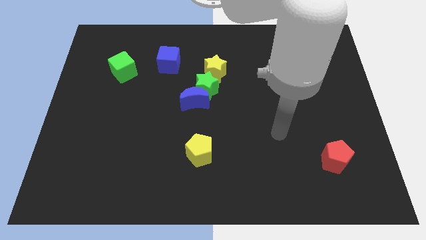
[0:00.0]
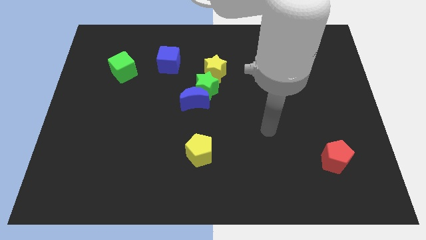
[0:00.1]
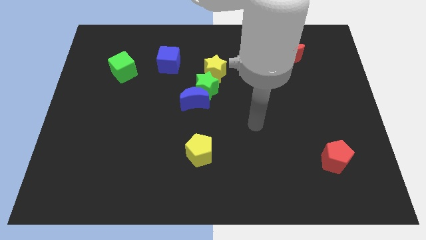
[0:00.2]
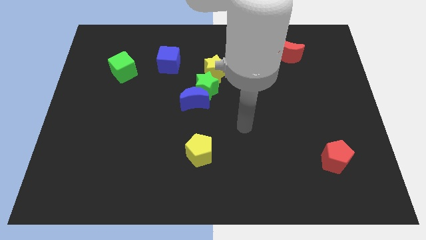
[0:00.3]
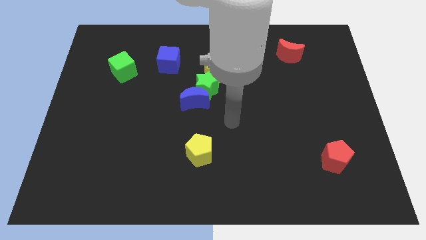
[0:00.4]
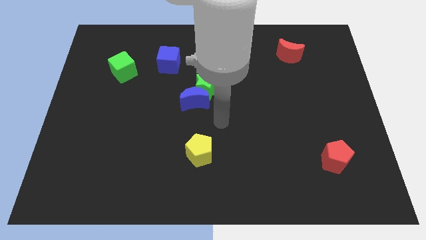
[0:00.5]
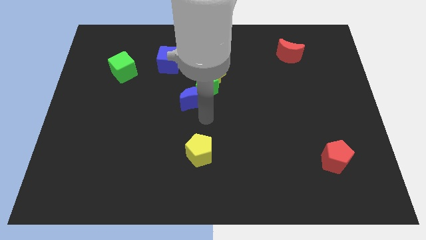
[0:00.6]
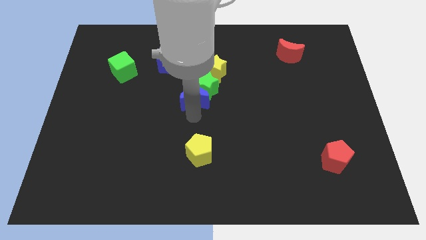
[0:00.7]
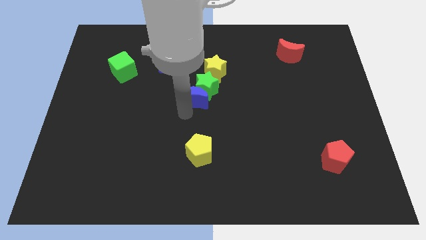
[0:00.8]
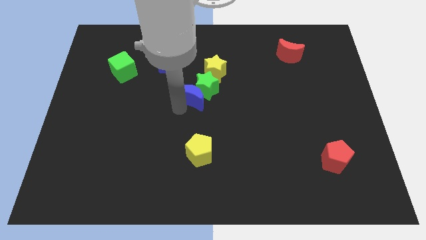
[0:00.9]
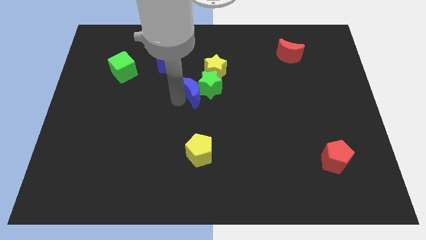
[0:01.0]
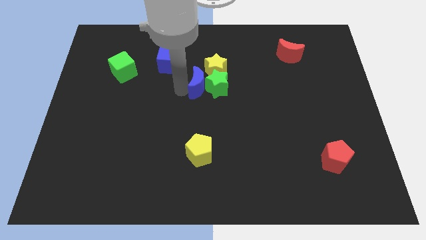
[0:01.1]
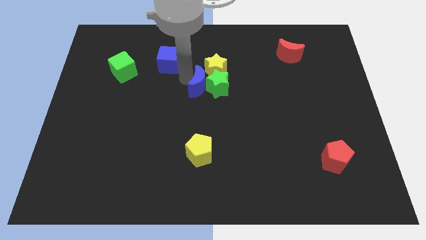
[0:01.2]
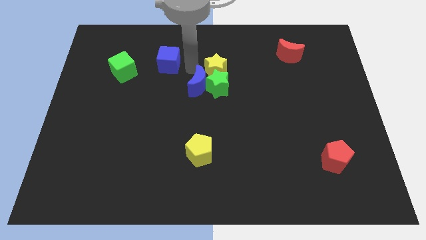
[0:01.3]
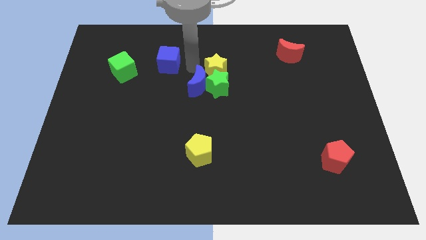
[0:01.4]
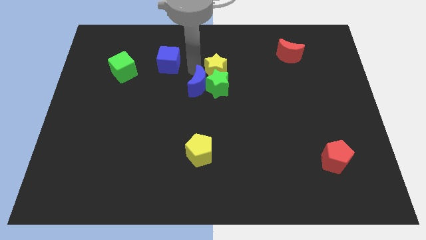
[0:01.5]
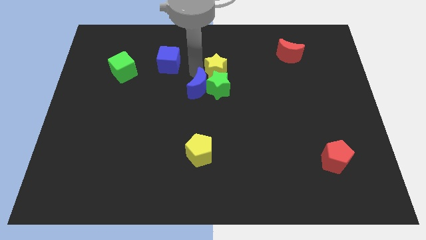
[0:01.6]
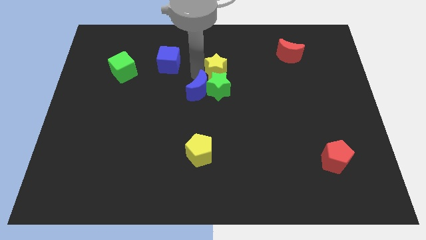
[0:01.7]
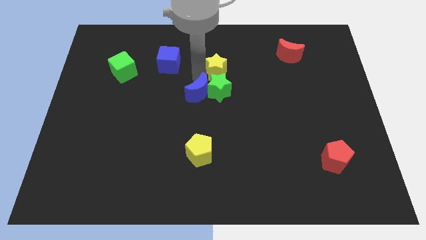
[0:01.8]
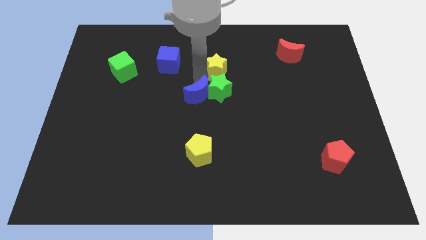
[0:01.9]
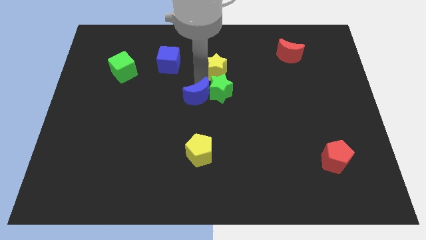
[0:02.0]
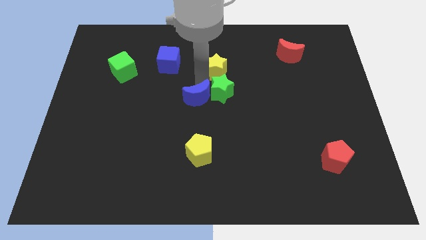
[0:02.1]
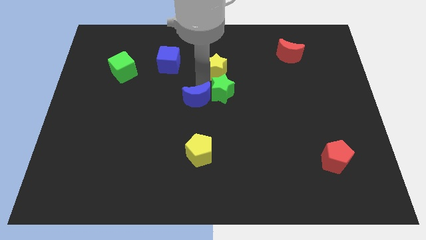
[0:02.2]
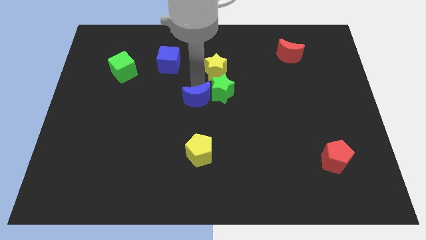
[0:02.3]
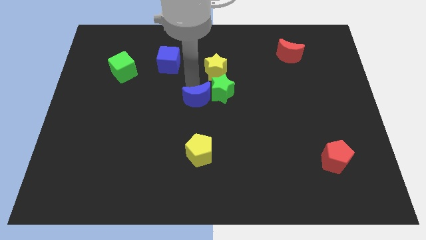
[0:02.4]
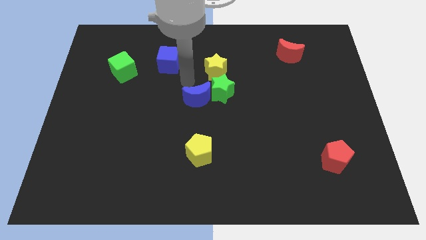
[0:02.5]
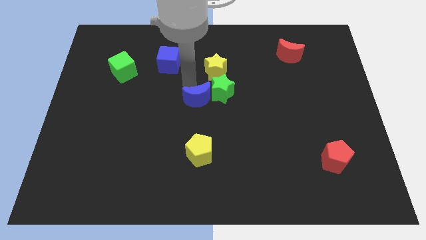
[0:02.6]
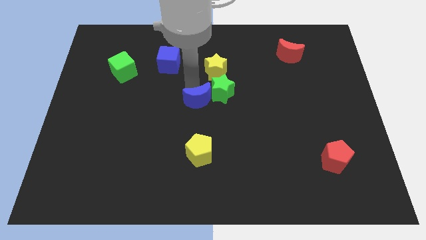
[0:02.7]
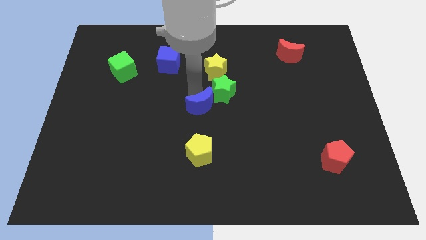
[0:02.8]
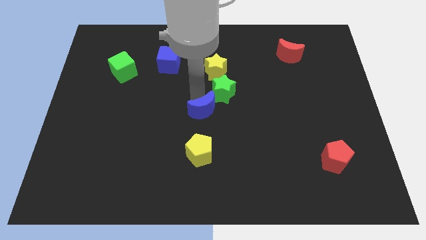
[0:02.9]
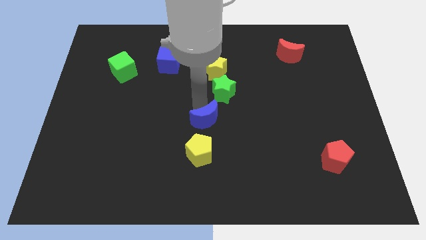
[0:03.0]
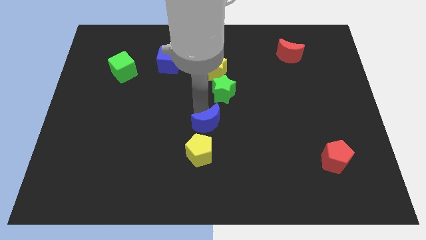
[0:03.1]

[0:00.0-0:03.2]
slightly move the blue moon downwards and right diagonally

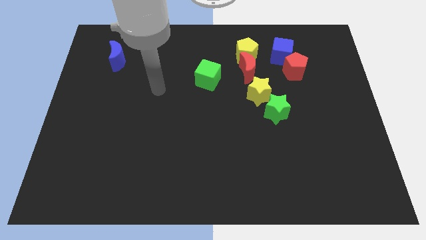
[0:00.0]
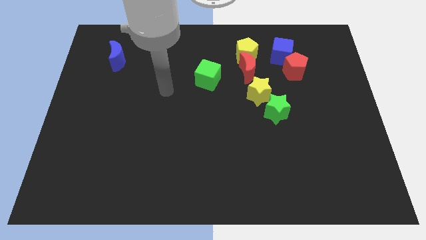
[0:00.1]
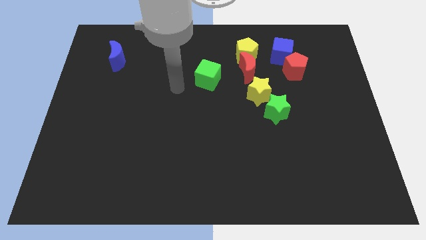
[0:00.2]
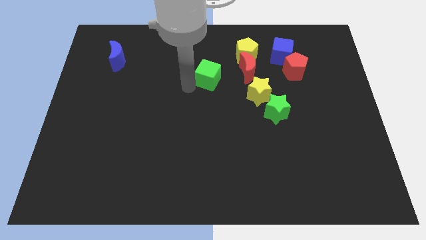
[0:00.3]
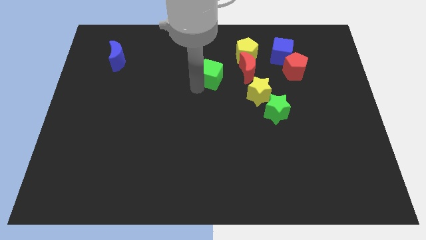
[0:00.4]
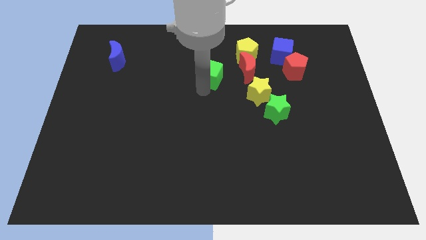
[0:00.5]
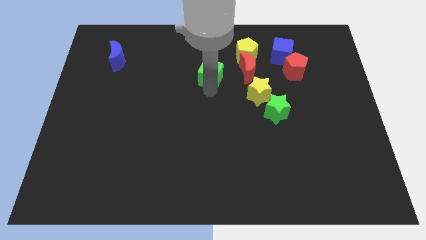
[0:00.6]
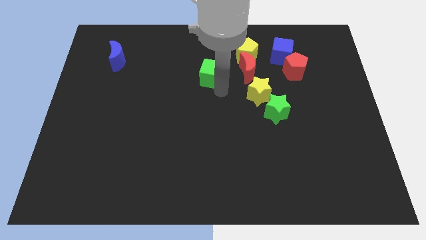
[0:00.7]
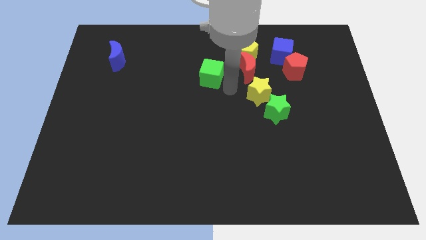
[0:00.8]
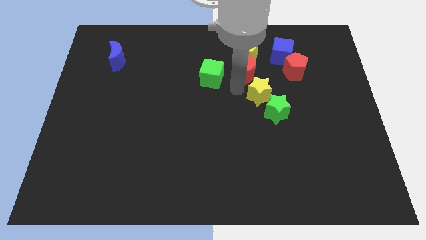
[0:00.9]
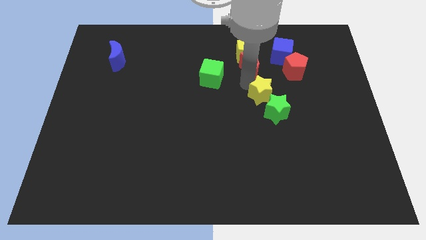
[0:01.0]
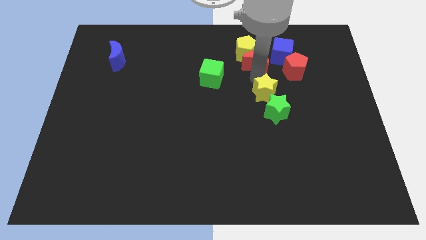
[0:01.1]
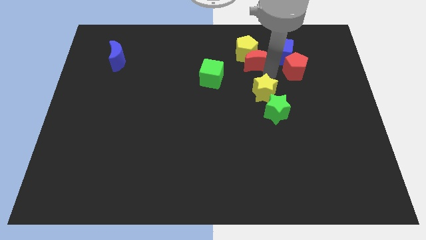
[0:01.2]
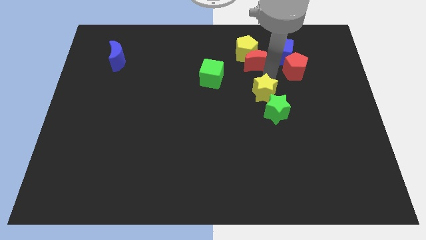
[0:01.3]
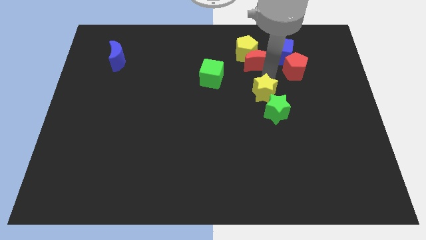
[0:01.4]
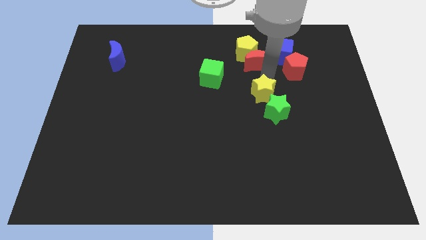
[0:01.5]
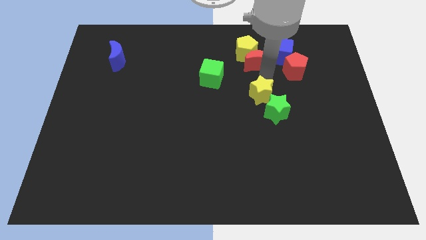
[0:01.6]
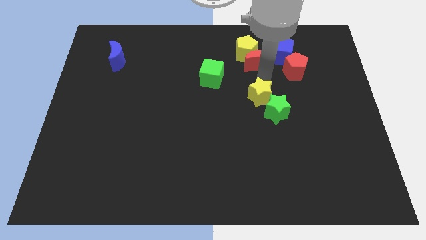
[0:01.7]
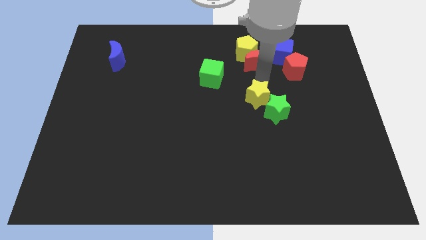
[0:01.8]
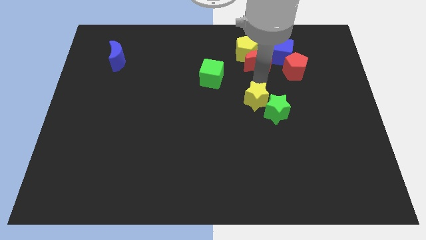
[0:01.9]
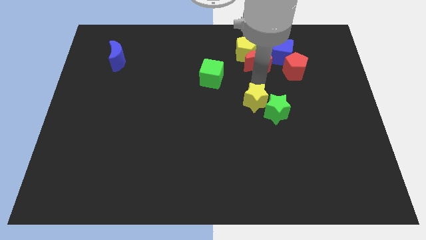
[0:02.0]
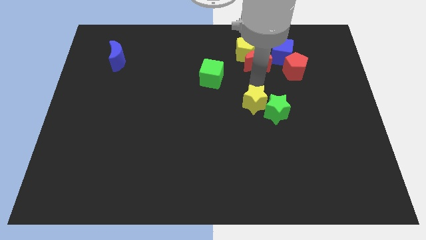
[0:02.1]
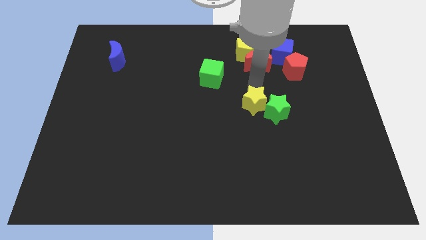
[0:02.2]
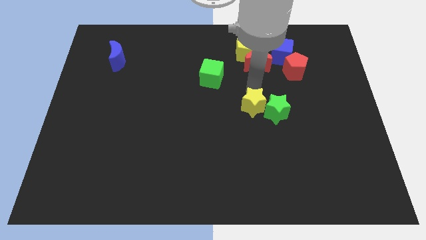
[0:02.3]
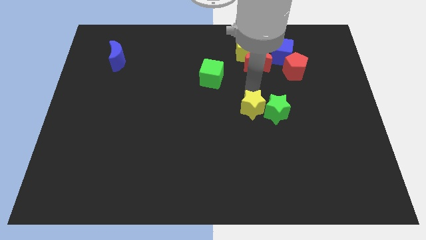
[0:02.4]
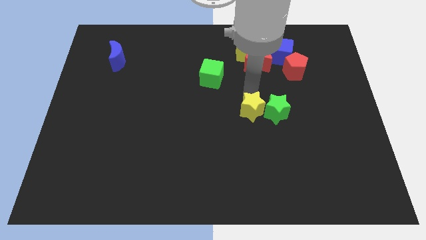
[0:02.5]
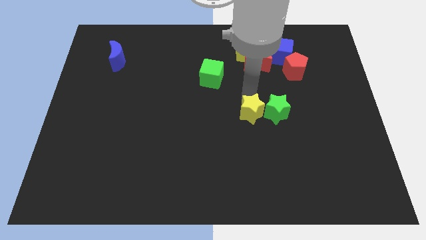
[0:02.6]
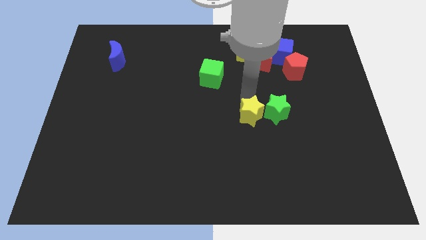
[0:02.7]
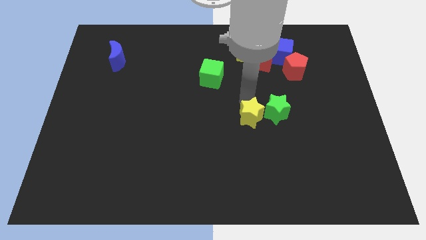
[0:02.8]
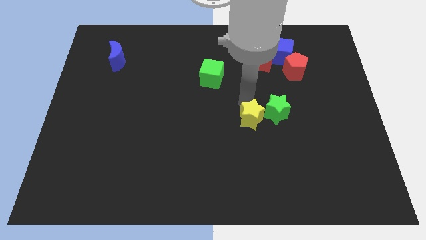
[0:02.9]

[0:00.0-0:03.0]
move the yellow star a little down

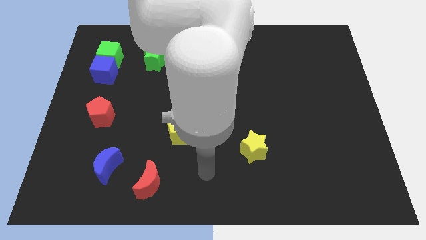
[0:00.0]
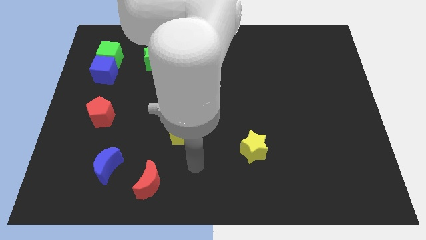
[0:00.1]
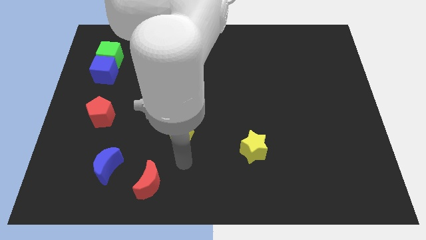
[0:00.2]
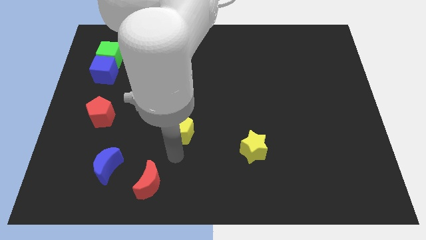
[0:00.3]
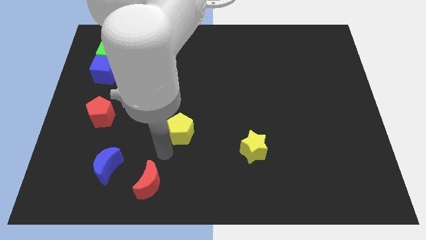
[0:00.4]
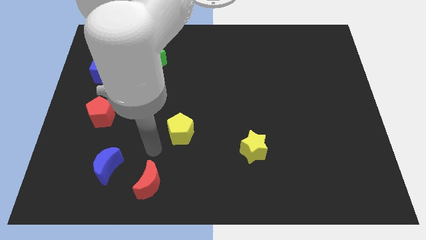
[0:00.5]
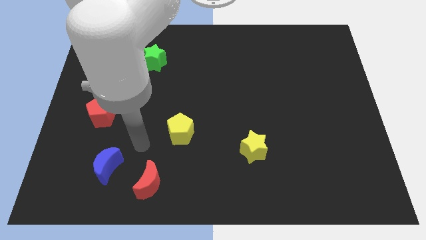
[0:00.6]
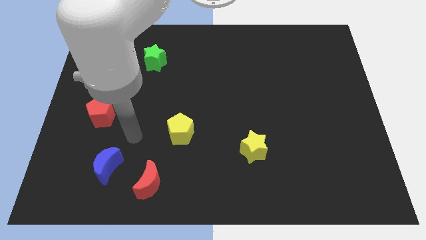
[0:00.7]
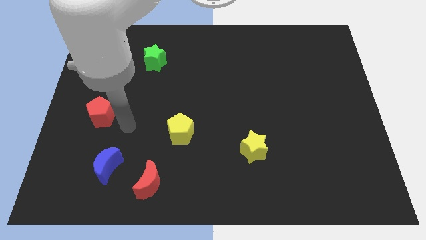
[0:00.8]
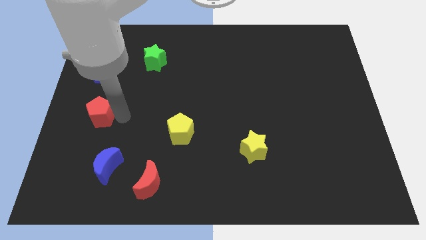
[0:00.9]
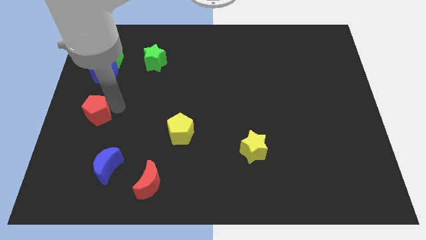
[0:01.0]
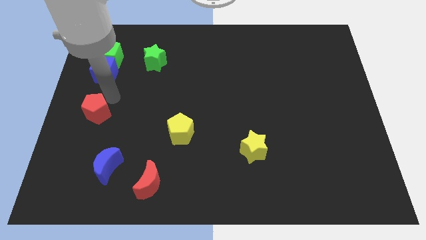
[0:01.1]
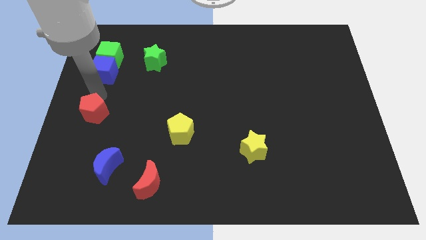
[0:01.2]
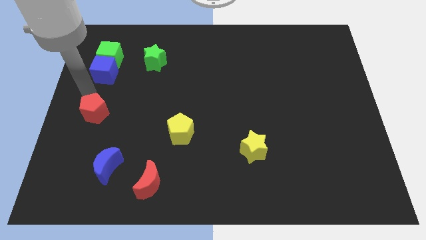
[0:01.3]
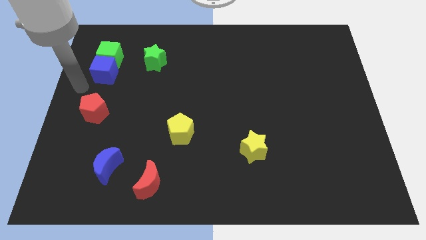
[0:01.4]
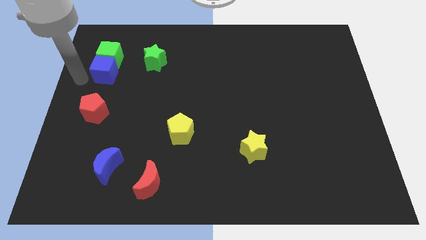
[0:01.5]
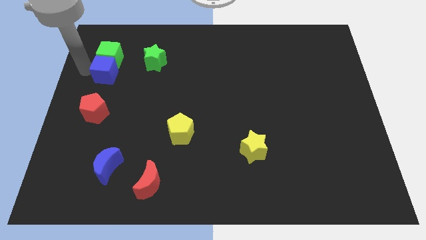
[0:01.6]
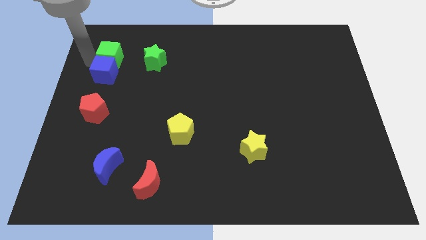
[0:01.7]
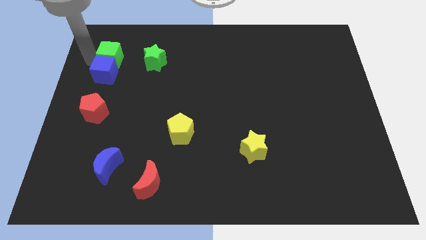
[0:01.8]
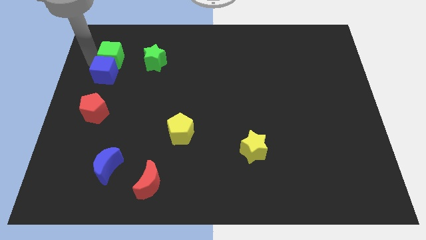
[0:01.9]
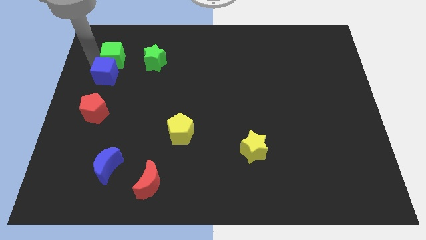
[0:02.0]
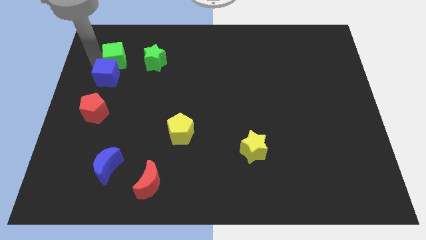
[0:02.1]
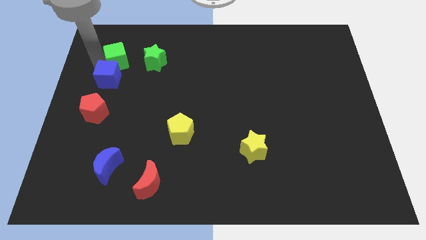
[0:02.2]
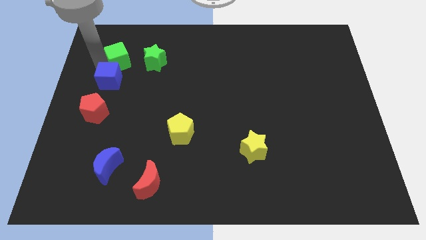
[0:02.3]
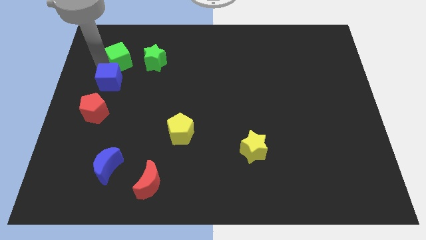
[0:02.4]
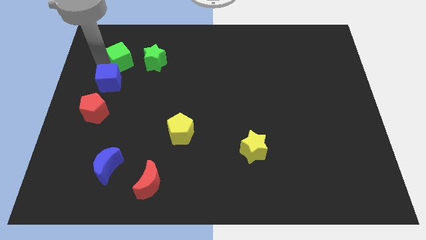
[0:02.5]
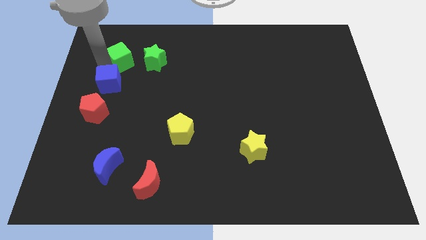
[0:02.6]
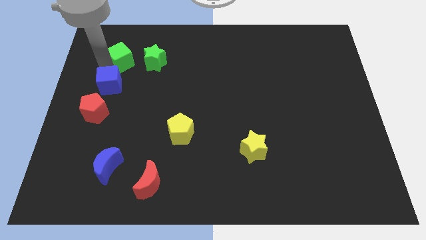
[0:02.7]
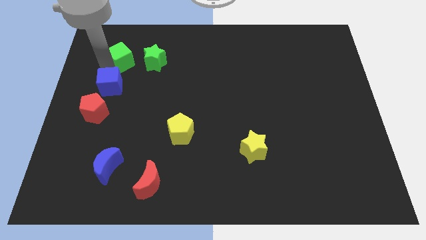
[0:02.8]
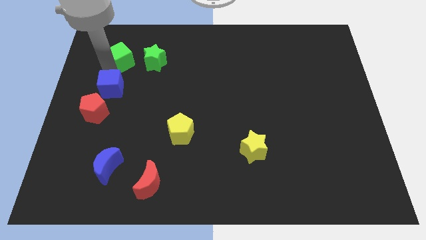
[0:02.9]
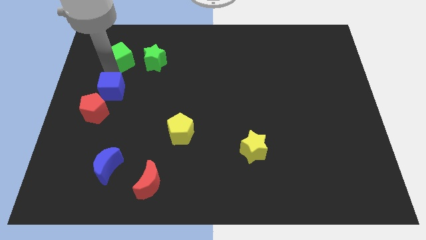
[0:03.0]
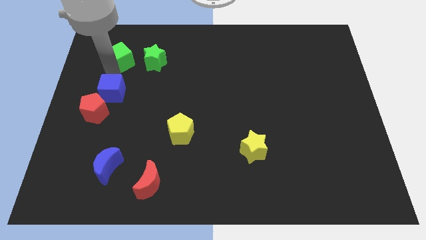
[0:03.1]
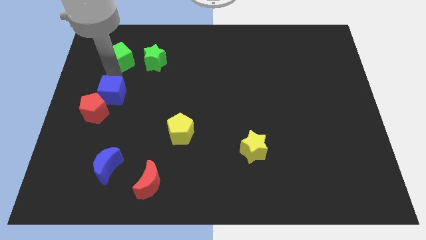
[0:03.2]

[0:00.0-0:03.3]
move the blue cube down and right diagonally a little
